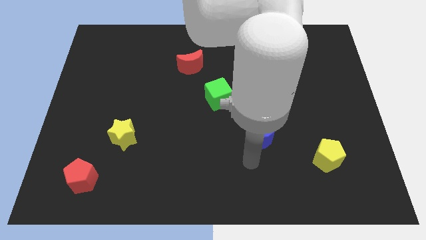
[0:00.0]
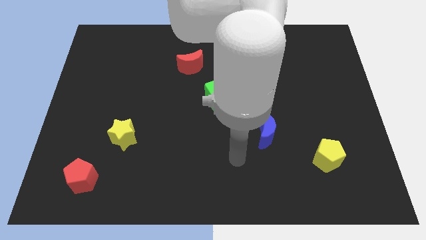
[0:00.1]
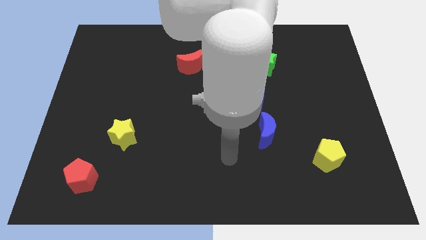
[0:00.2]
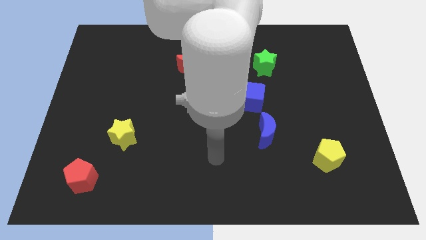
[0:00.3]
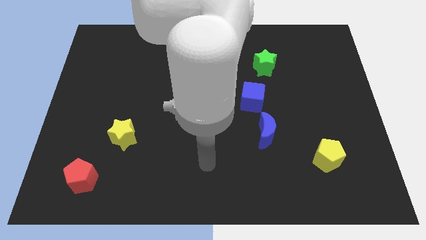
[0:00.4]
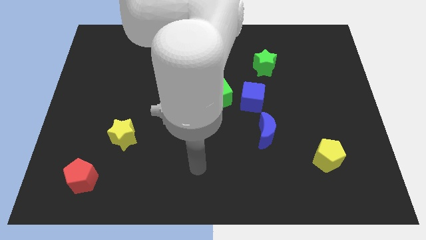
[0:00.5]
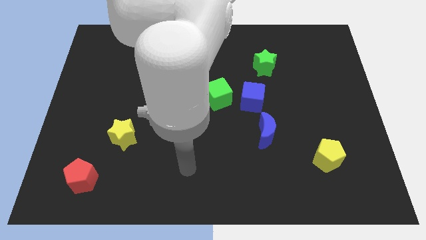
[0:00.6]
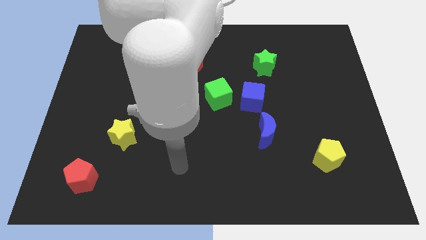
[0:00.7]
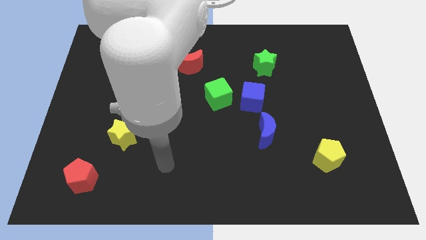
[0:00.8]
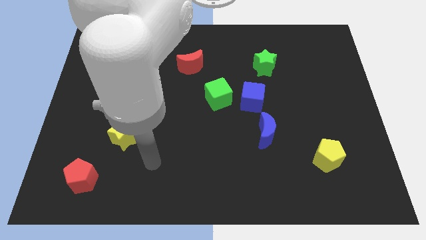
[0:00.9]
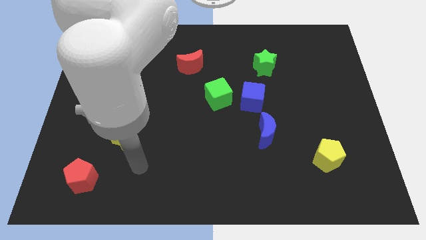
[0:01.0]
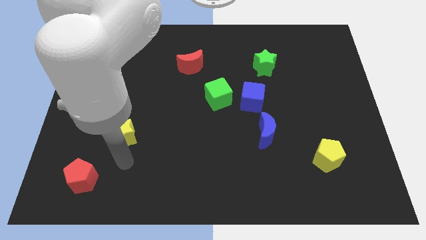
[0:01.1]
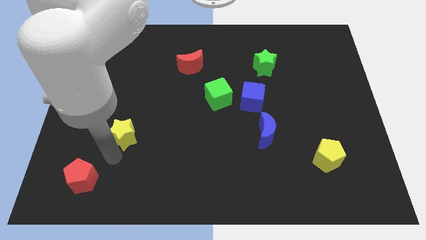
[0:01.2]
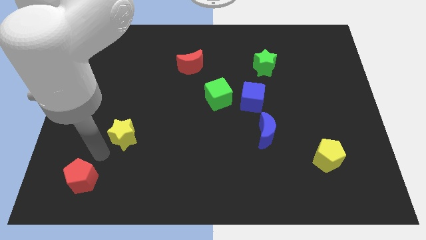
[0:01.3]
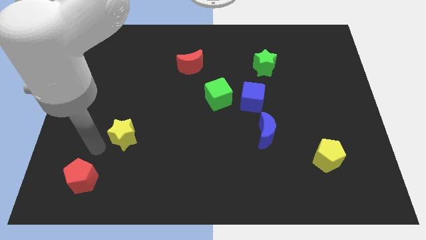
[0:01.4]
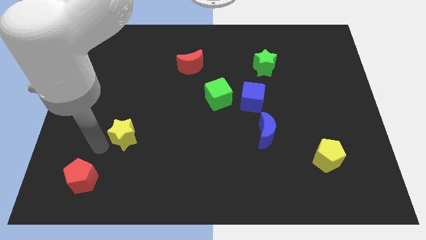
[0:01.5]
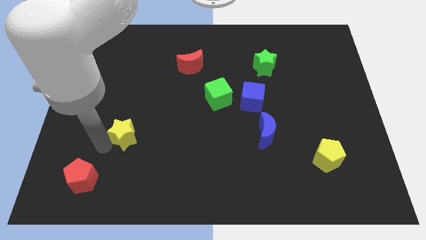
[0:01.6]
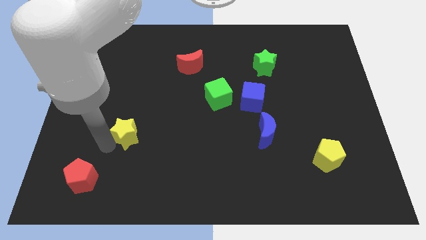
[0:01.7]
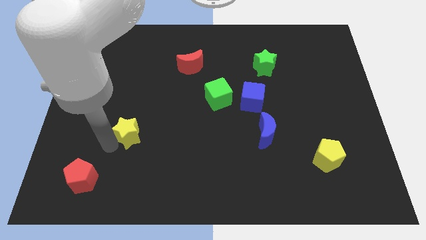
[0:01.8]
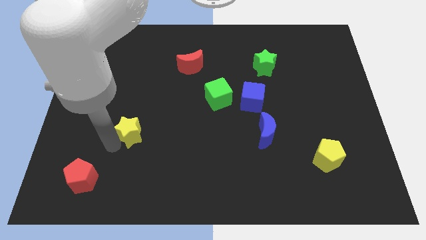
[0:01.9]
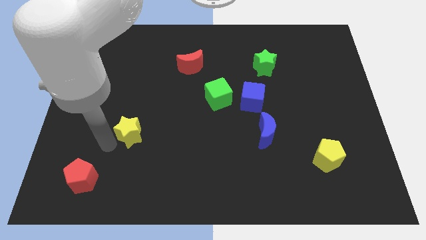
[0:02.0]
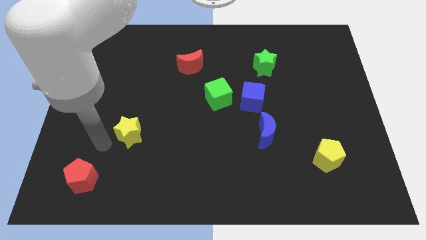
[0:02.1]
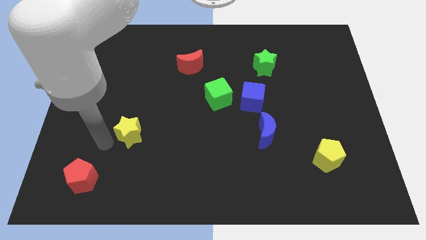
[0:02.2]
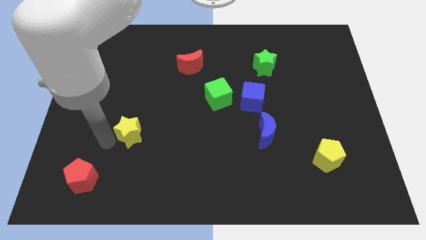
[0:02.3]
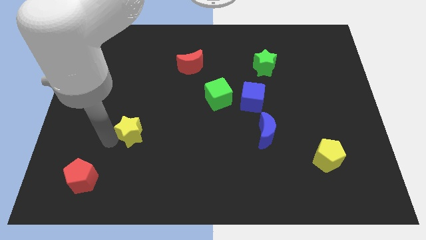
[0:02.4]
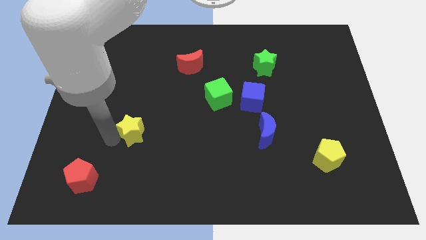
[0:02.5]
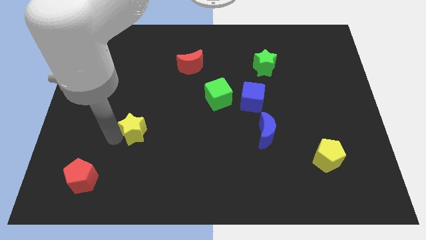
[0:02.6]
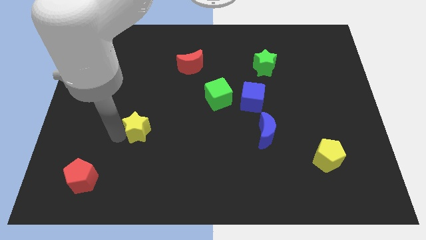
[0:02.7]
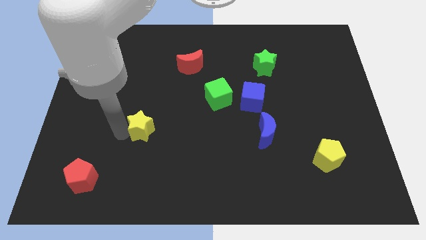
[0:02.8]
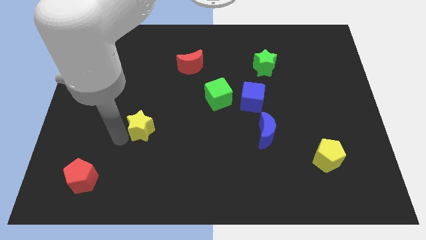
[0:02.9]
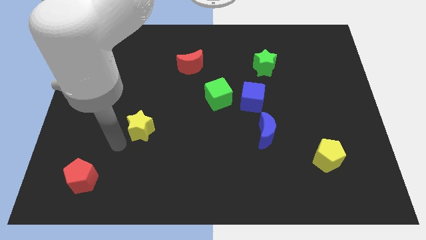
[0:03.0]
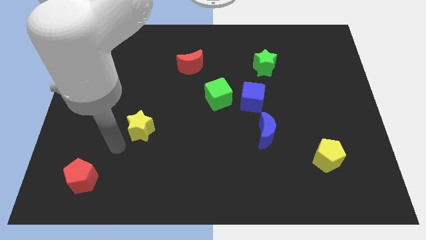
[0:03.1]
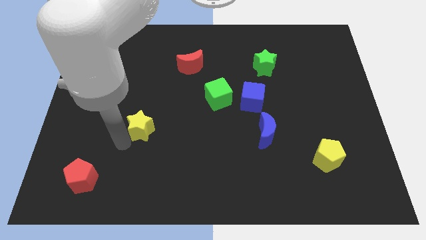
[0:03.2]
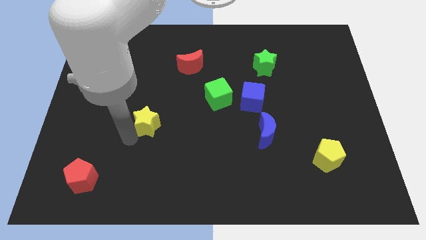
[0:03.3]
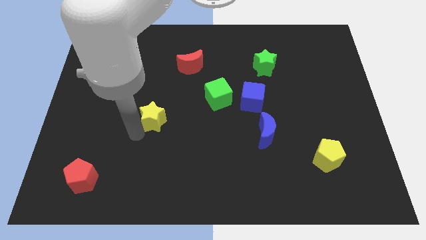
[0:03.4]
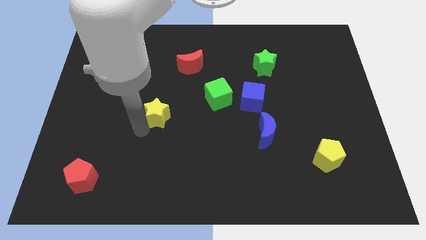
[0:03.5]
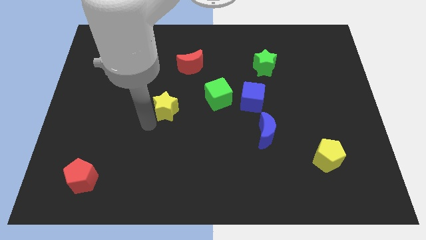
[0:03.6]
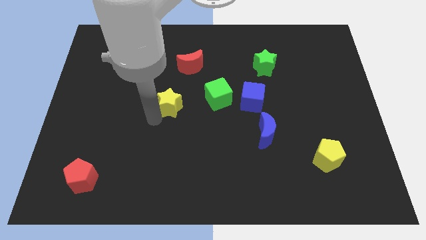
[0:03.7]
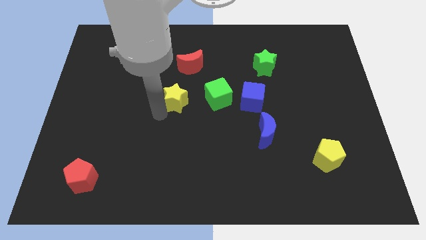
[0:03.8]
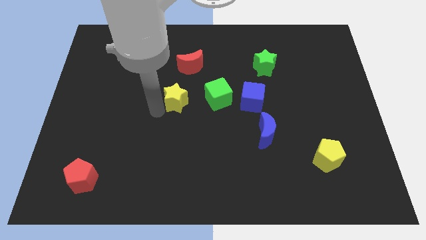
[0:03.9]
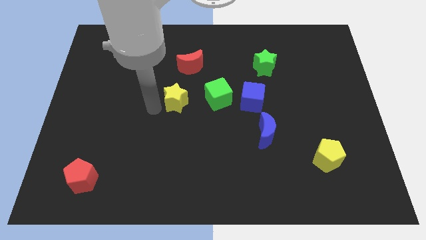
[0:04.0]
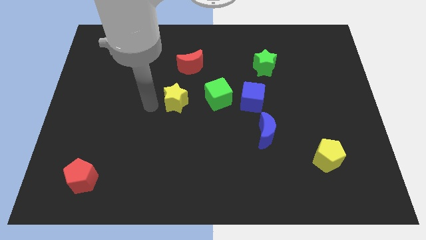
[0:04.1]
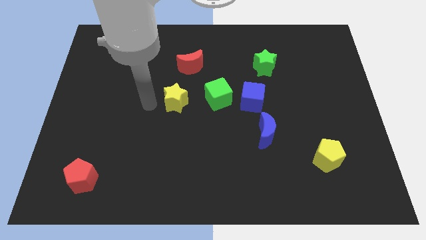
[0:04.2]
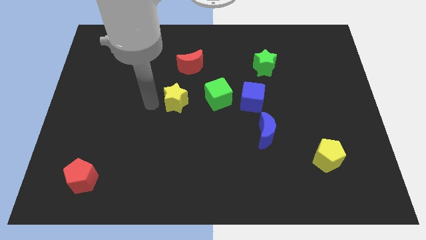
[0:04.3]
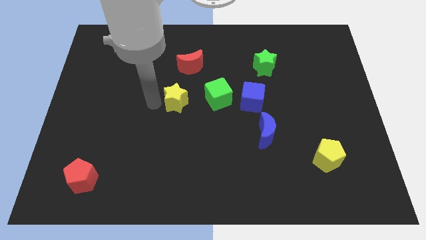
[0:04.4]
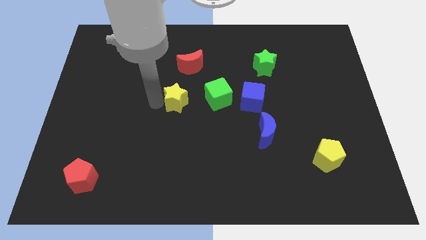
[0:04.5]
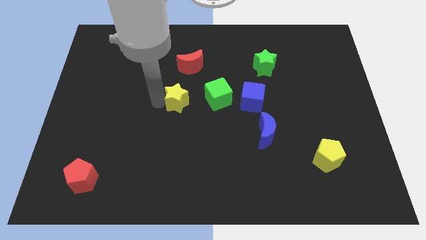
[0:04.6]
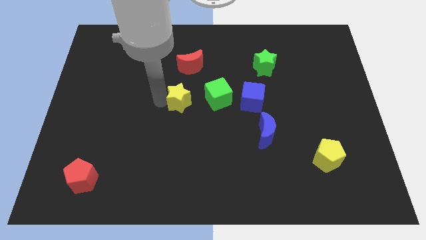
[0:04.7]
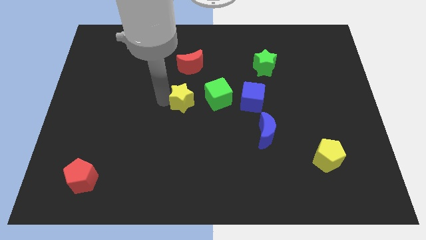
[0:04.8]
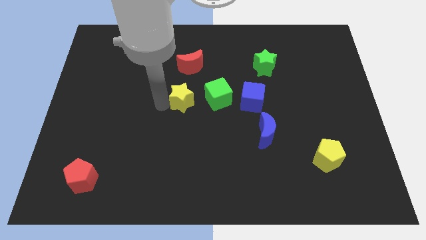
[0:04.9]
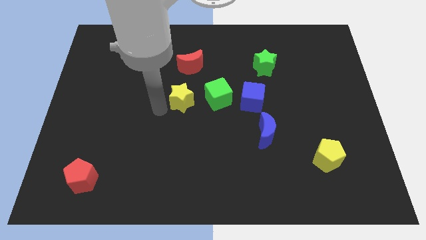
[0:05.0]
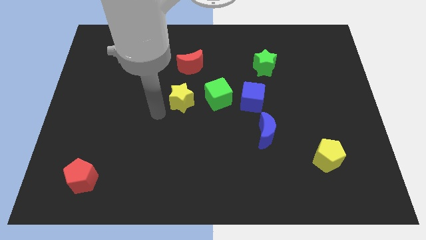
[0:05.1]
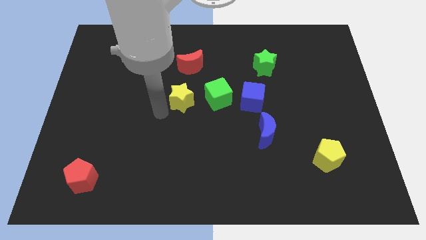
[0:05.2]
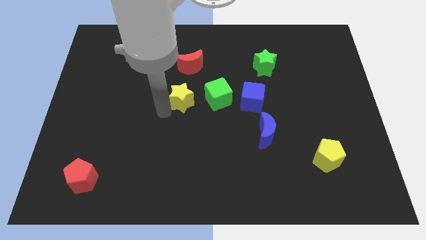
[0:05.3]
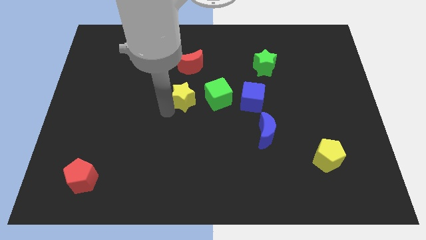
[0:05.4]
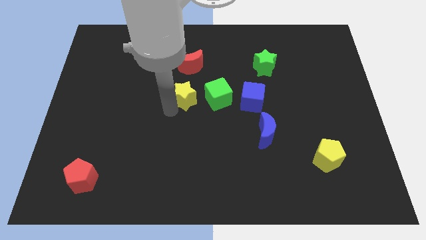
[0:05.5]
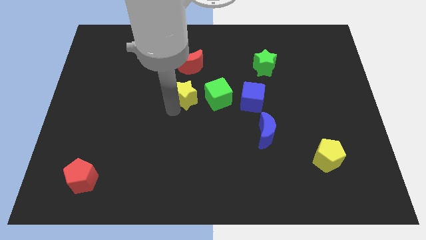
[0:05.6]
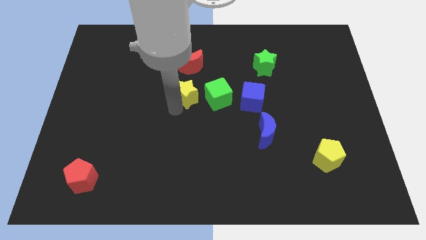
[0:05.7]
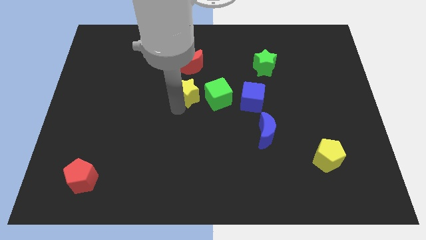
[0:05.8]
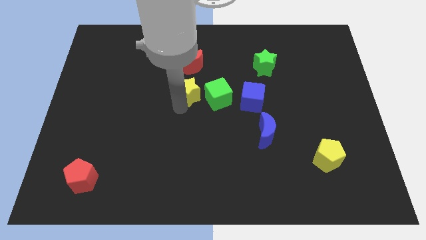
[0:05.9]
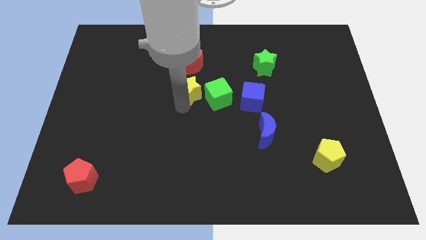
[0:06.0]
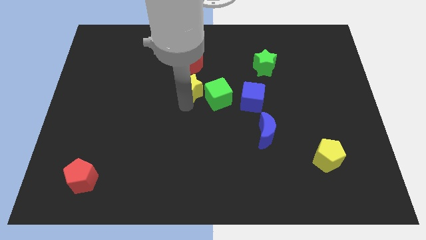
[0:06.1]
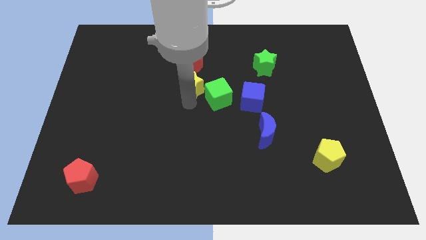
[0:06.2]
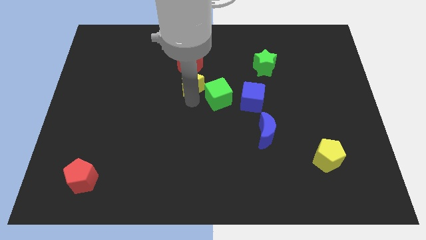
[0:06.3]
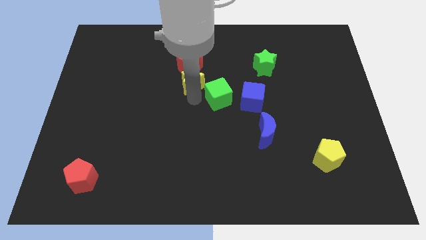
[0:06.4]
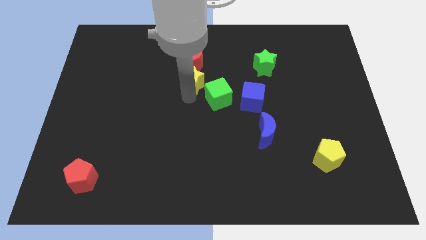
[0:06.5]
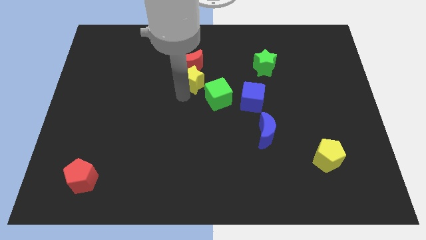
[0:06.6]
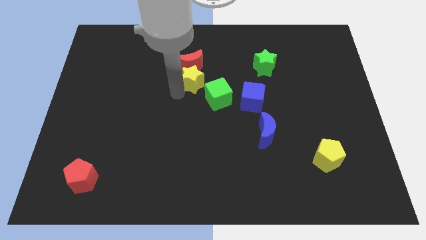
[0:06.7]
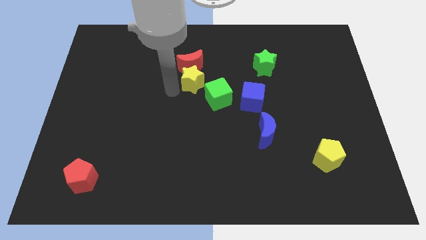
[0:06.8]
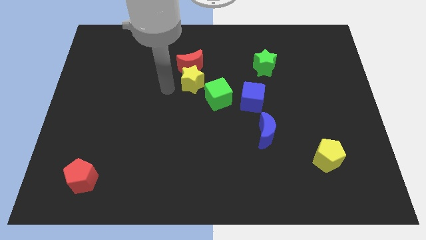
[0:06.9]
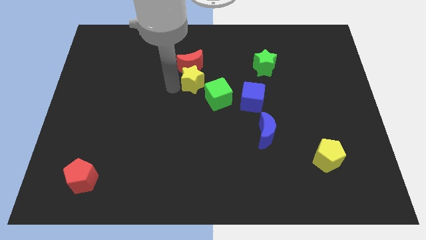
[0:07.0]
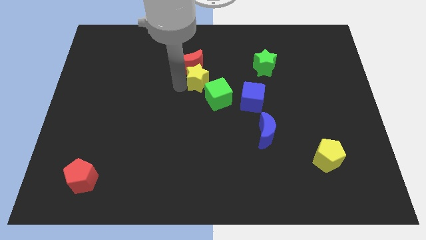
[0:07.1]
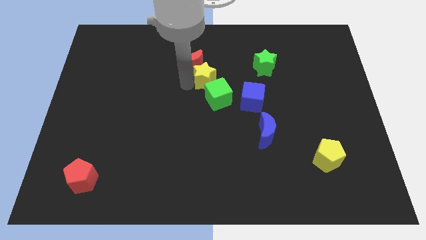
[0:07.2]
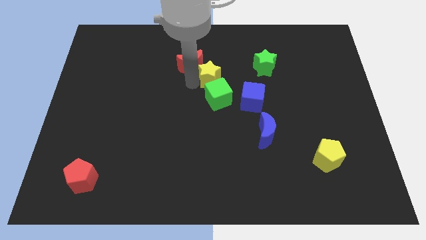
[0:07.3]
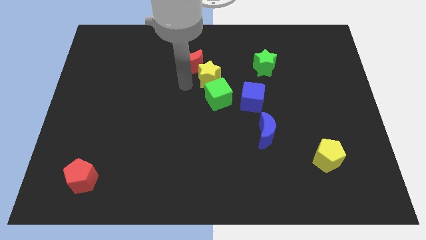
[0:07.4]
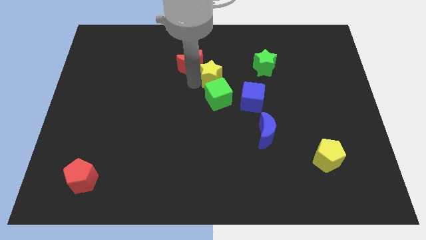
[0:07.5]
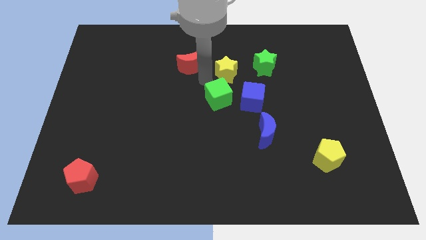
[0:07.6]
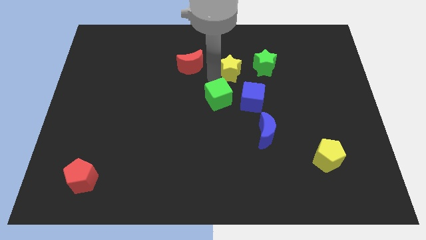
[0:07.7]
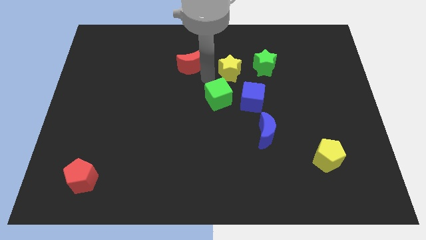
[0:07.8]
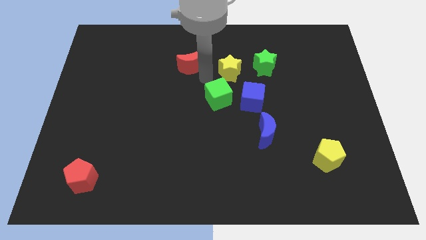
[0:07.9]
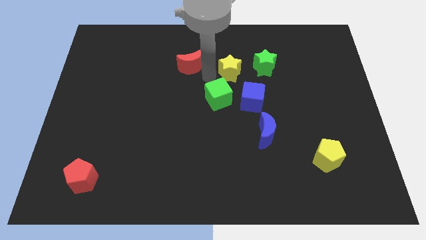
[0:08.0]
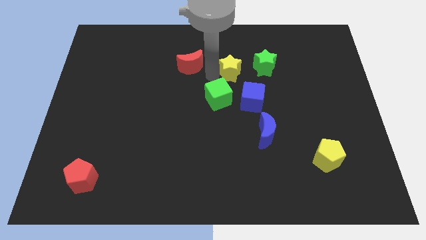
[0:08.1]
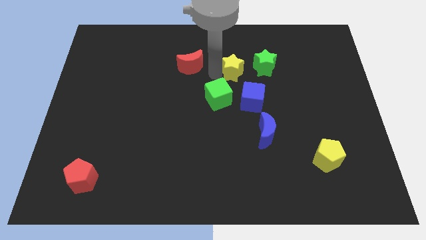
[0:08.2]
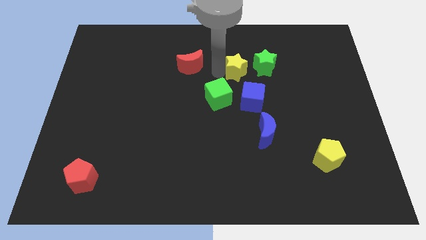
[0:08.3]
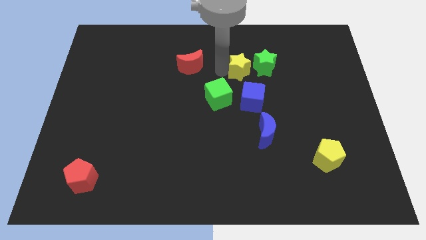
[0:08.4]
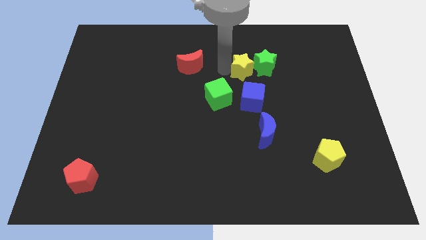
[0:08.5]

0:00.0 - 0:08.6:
push the yellow star towards the green star
